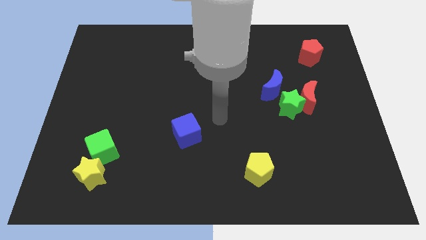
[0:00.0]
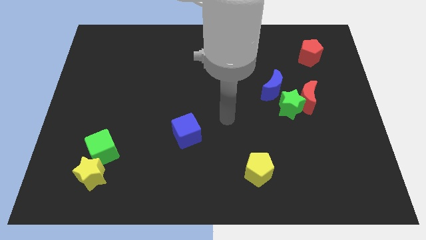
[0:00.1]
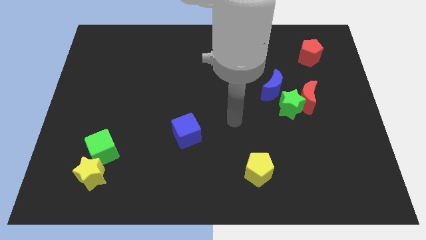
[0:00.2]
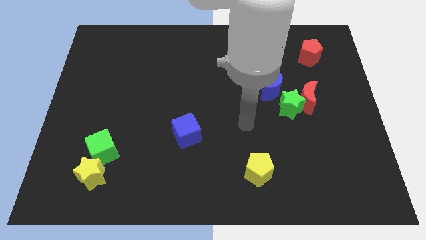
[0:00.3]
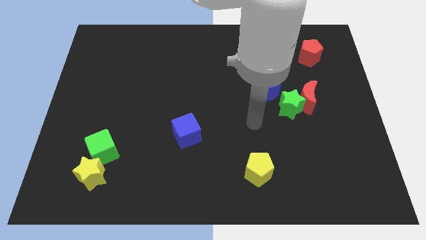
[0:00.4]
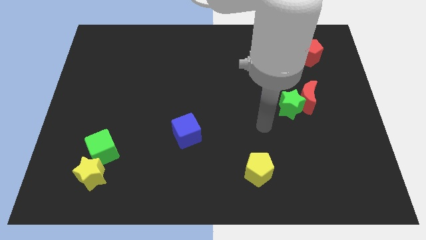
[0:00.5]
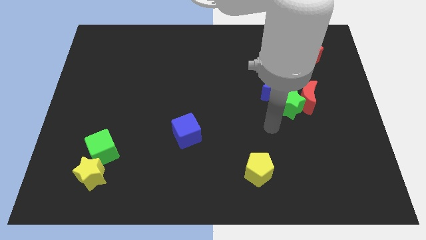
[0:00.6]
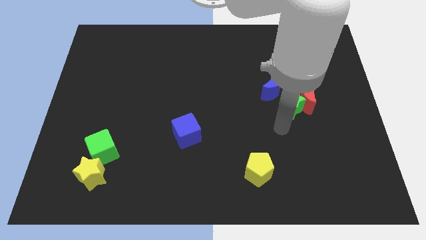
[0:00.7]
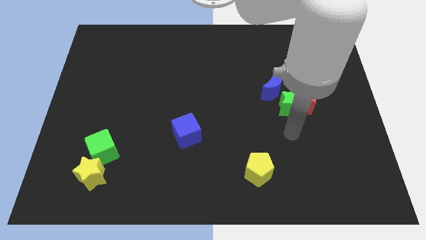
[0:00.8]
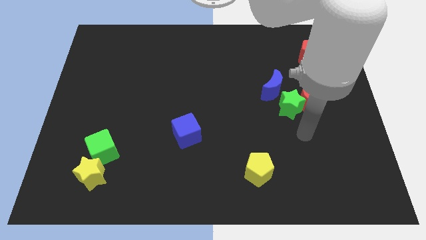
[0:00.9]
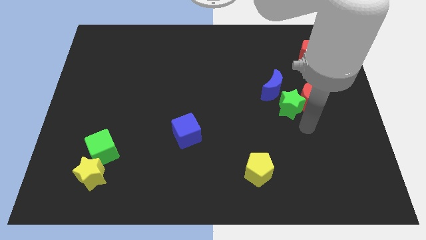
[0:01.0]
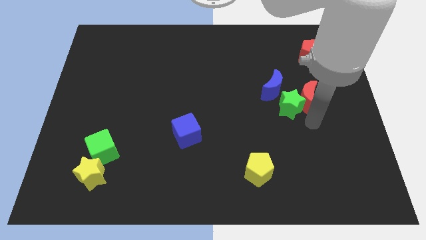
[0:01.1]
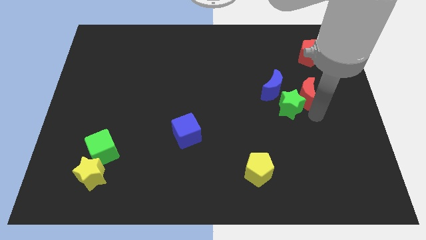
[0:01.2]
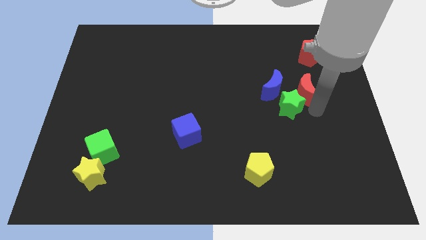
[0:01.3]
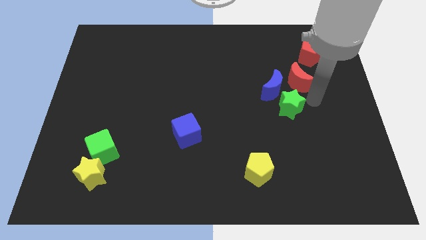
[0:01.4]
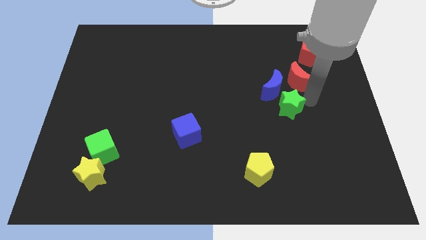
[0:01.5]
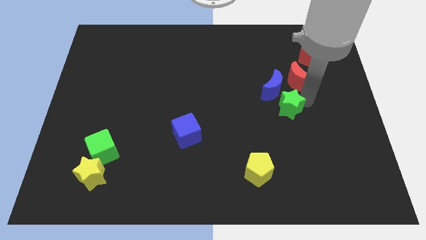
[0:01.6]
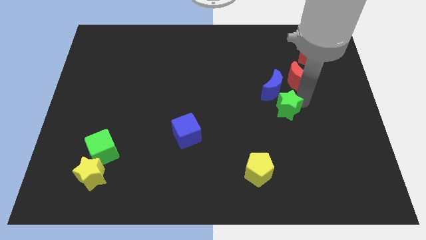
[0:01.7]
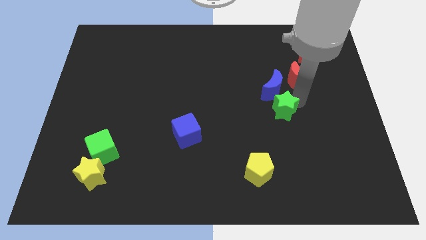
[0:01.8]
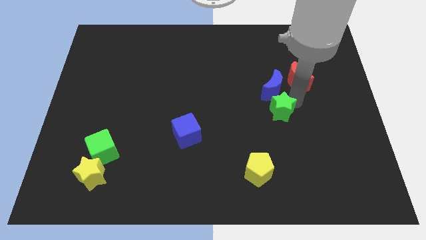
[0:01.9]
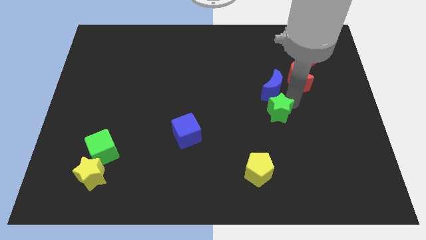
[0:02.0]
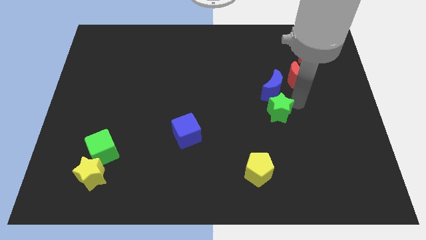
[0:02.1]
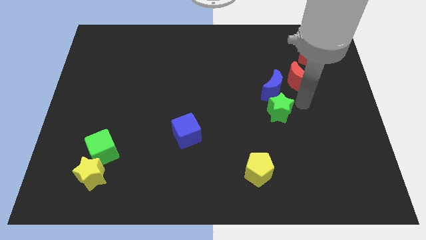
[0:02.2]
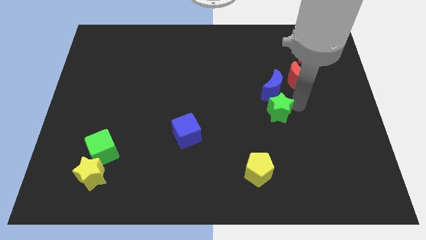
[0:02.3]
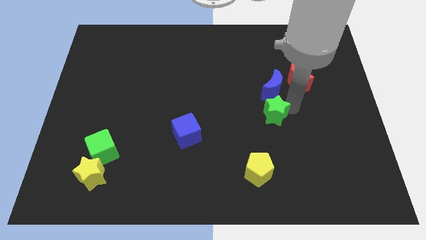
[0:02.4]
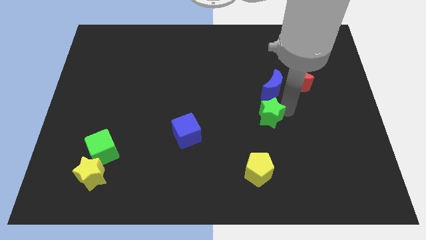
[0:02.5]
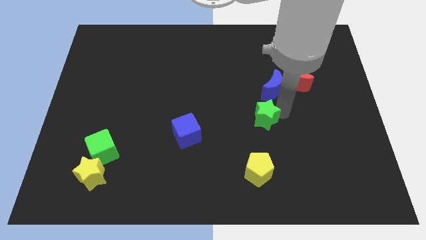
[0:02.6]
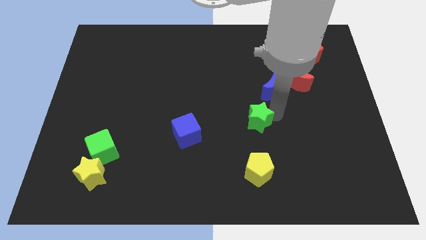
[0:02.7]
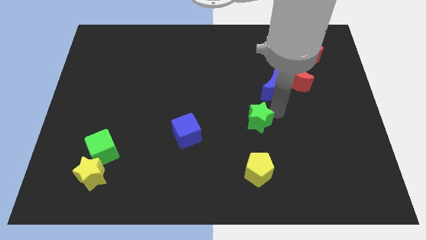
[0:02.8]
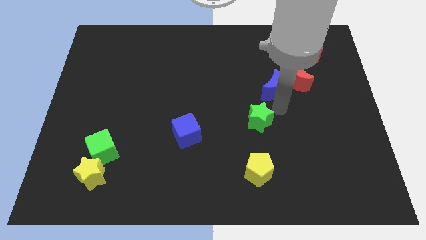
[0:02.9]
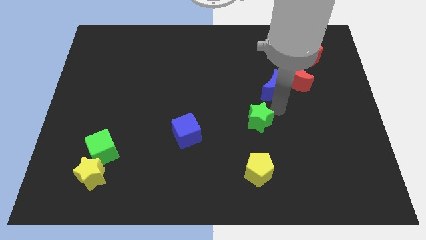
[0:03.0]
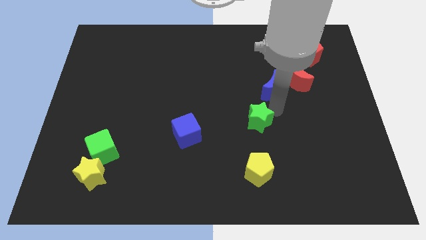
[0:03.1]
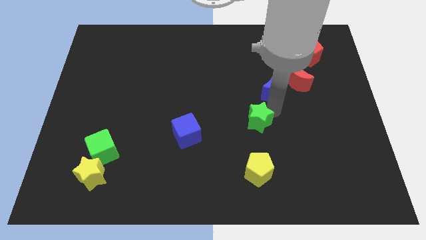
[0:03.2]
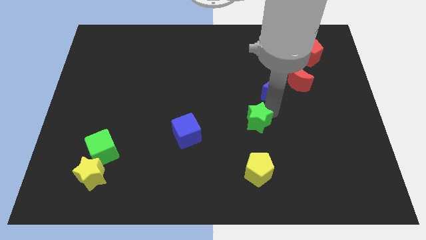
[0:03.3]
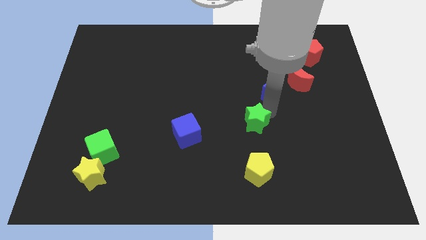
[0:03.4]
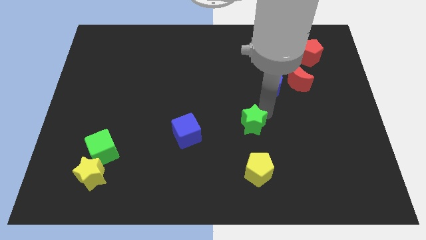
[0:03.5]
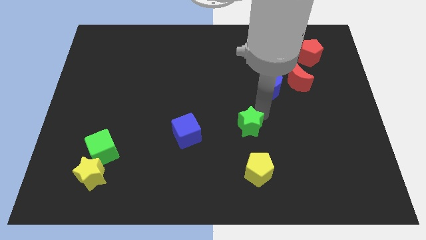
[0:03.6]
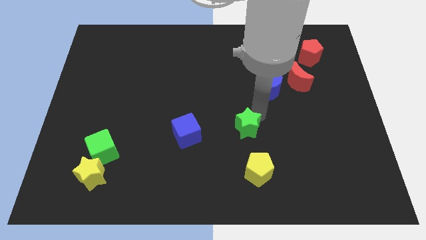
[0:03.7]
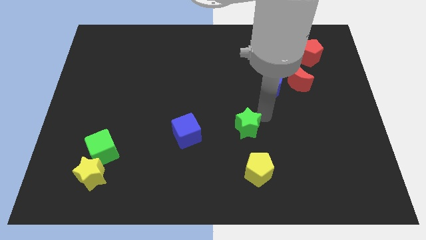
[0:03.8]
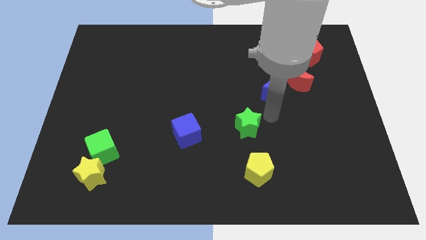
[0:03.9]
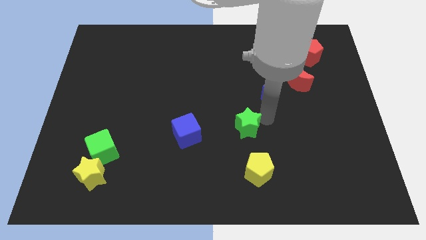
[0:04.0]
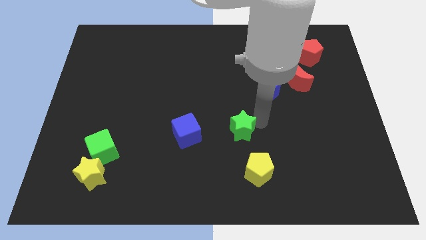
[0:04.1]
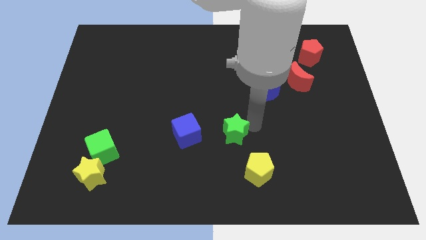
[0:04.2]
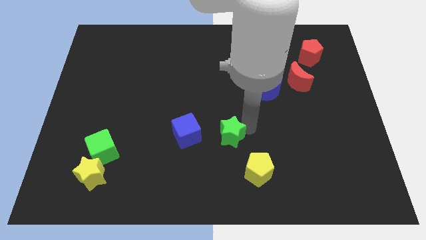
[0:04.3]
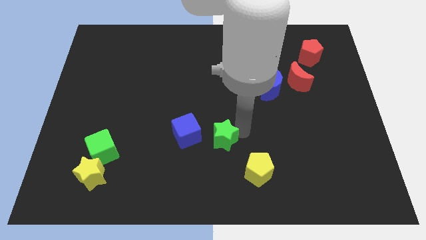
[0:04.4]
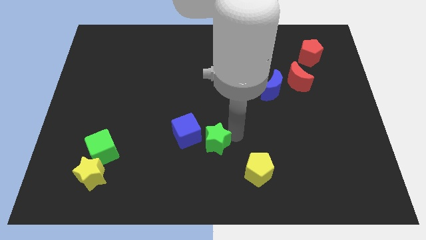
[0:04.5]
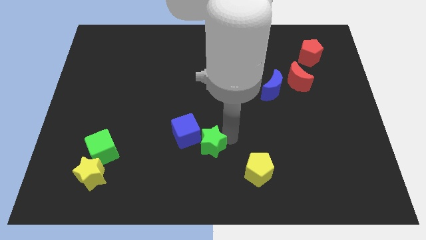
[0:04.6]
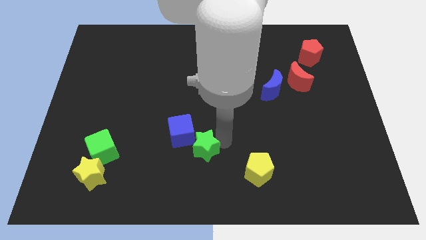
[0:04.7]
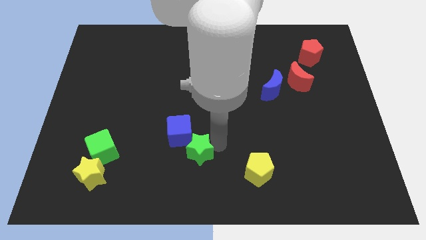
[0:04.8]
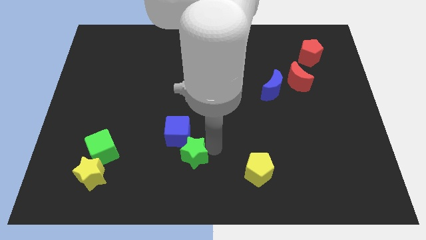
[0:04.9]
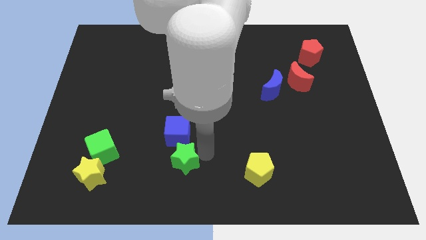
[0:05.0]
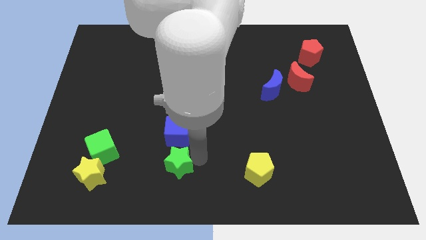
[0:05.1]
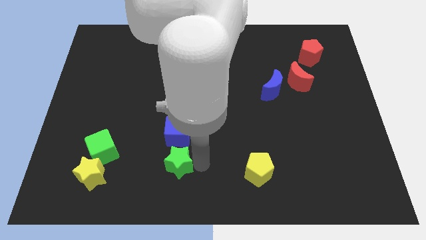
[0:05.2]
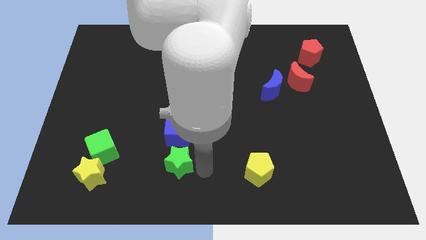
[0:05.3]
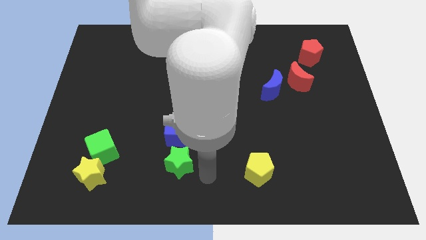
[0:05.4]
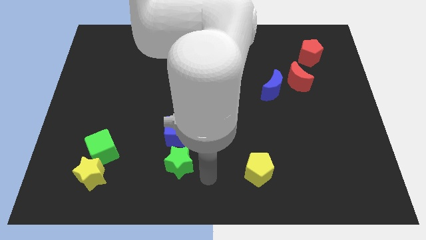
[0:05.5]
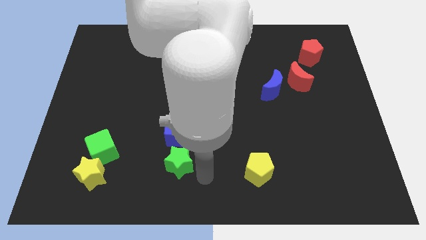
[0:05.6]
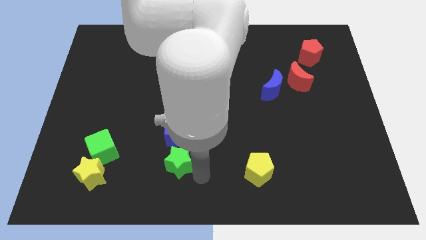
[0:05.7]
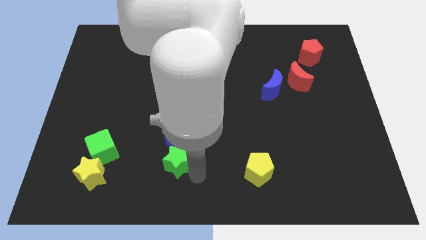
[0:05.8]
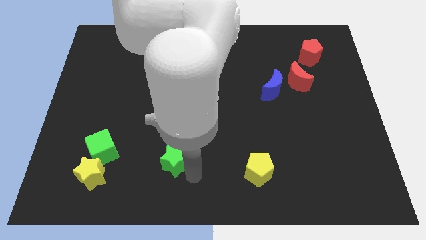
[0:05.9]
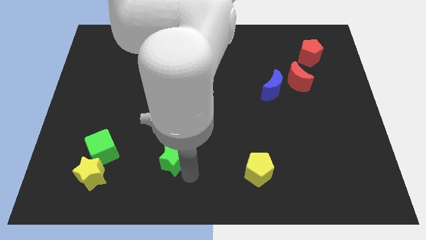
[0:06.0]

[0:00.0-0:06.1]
move the green star to the bottom left of the blue cube

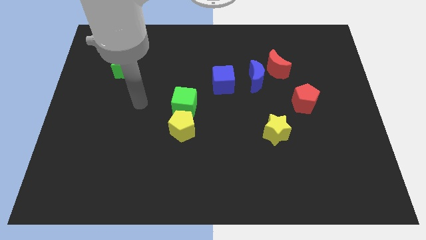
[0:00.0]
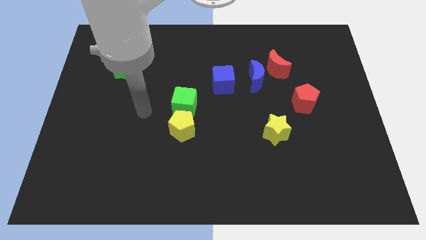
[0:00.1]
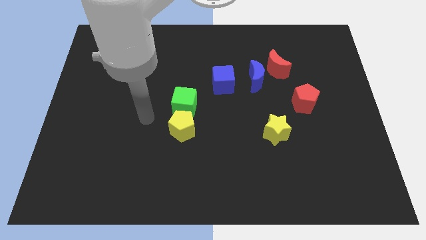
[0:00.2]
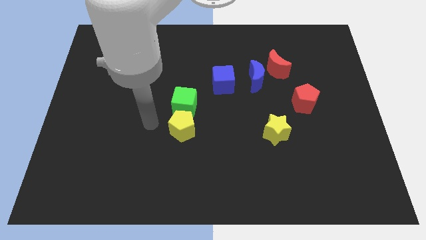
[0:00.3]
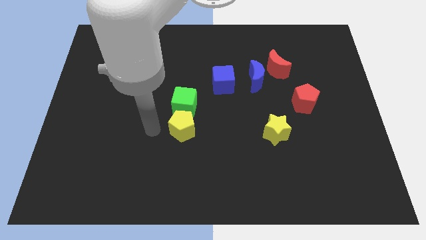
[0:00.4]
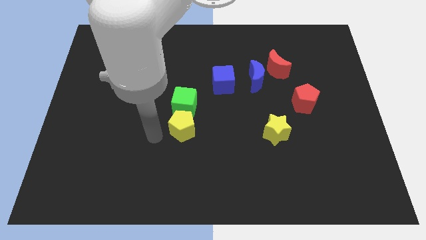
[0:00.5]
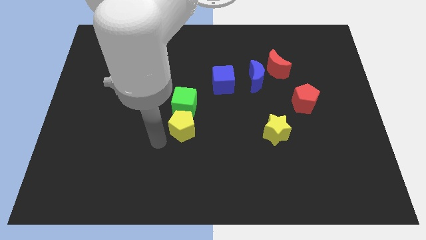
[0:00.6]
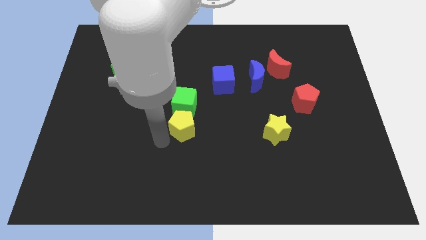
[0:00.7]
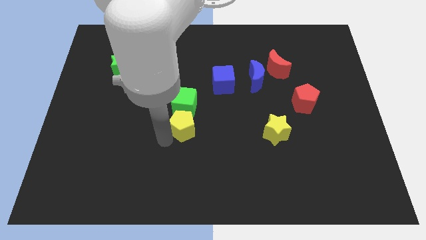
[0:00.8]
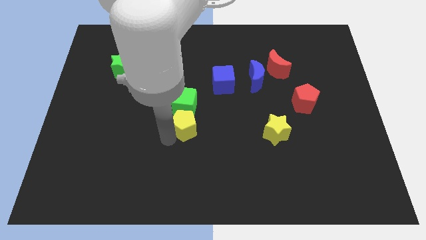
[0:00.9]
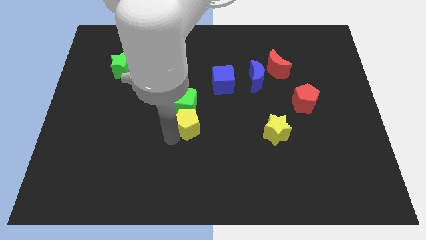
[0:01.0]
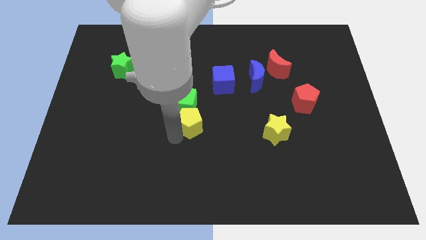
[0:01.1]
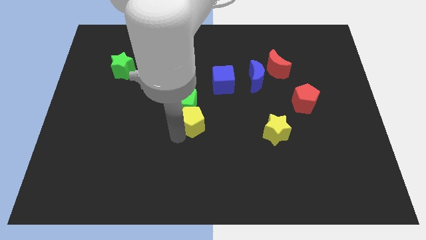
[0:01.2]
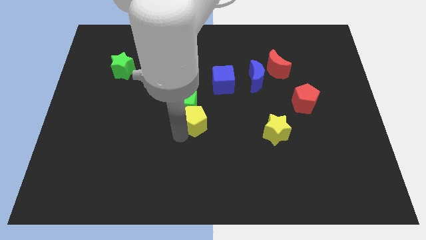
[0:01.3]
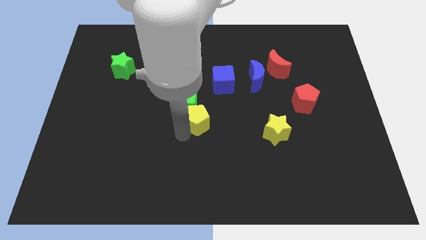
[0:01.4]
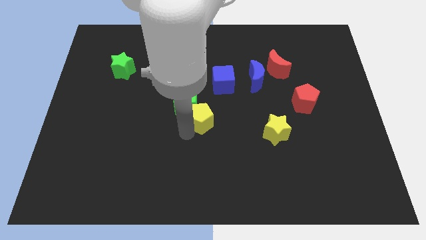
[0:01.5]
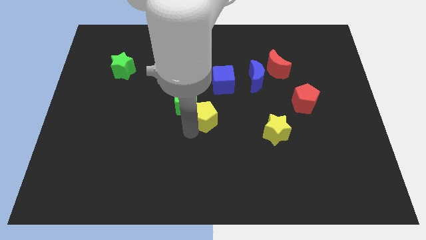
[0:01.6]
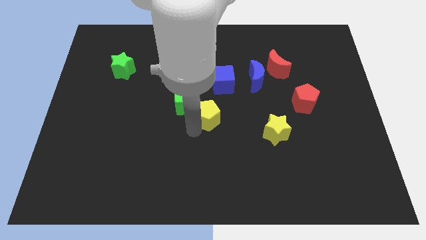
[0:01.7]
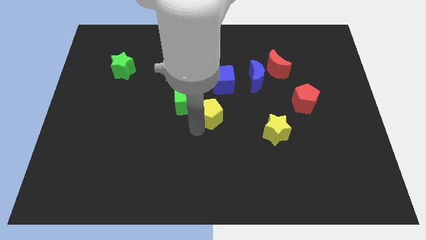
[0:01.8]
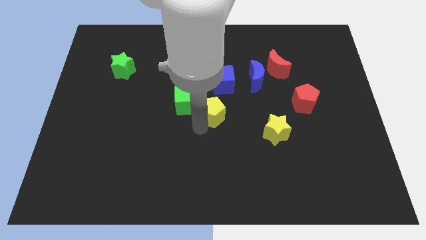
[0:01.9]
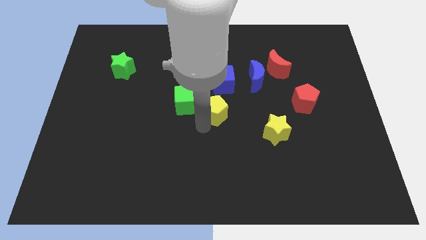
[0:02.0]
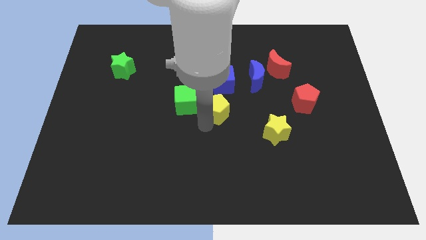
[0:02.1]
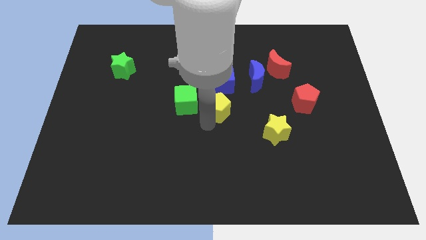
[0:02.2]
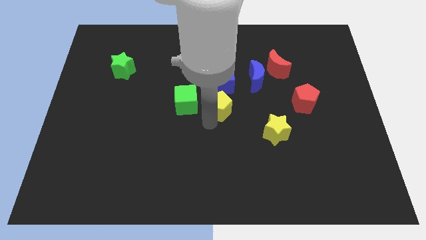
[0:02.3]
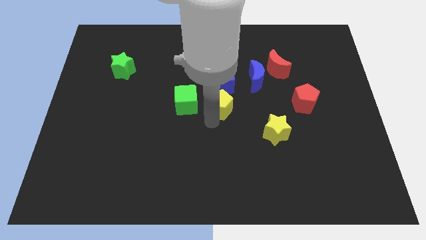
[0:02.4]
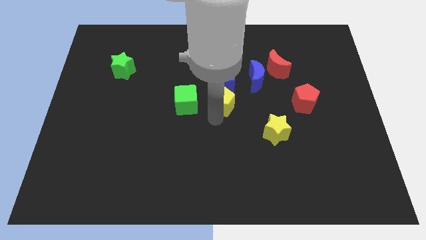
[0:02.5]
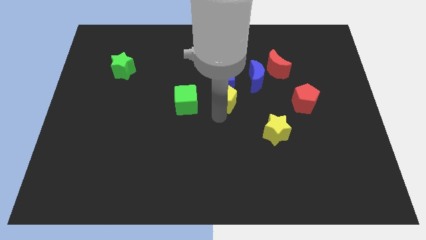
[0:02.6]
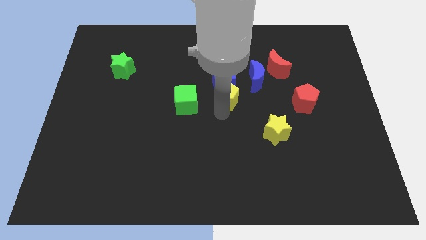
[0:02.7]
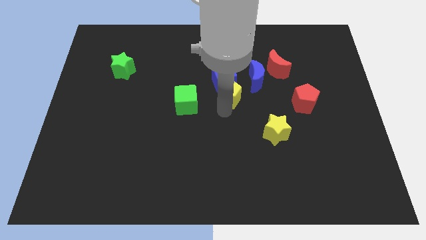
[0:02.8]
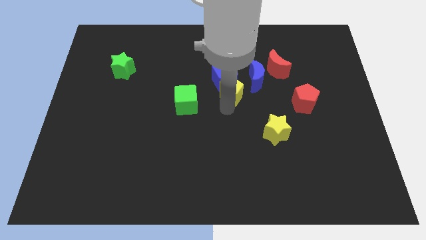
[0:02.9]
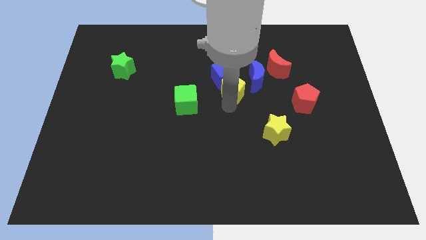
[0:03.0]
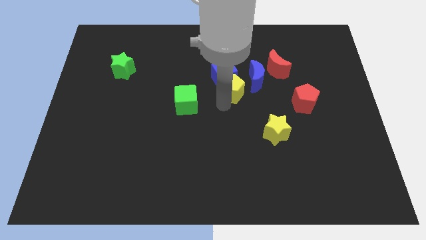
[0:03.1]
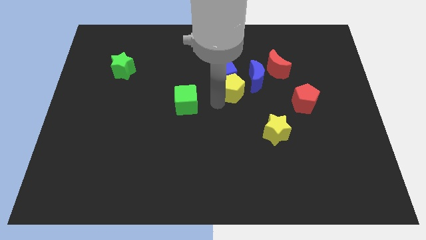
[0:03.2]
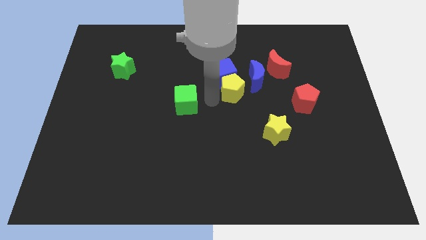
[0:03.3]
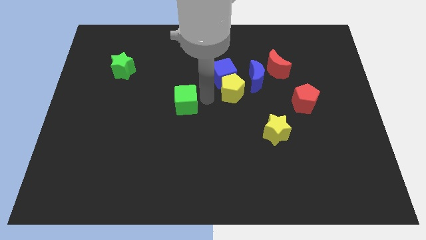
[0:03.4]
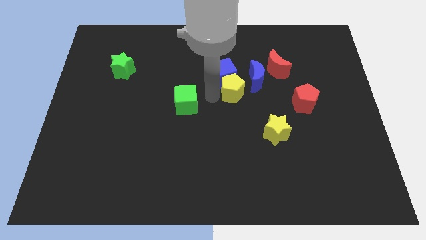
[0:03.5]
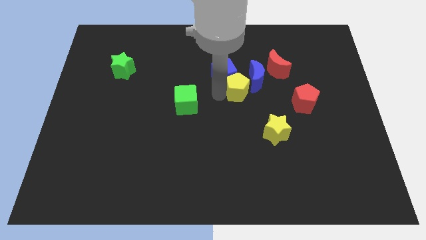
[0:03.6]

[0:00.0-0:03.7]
slide the yellow pentagon to the bottom left of the red moon
